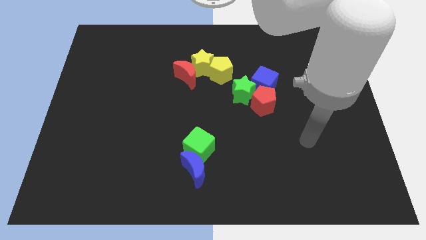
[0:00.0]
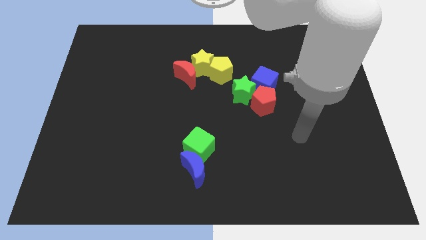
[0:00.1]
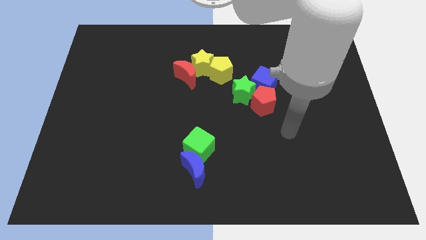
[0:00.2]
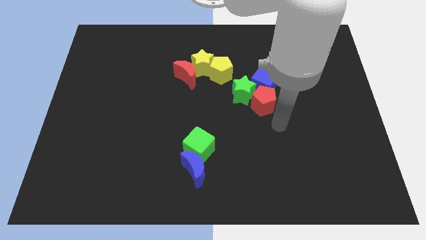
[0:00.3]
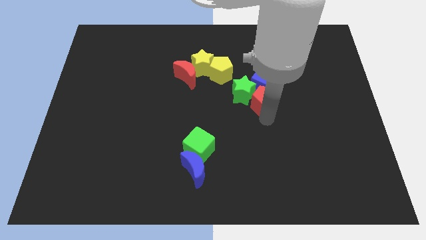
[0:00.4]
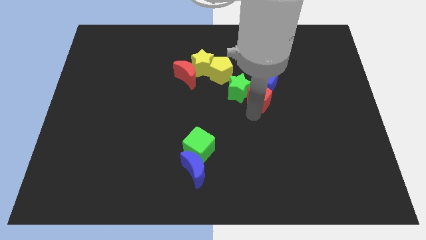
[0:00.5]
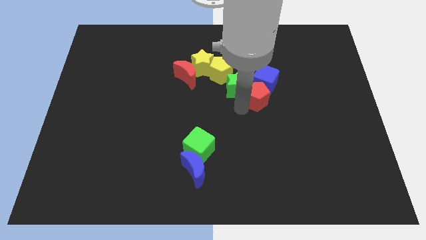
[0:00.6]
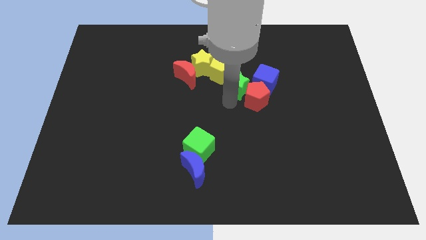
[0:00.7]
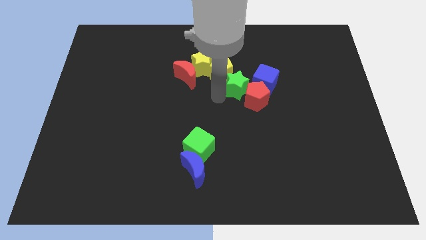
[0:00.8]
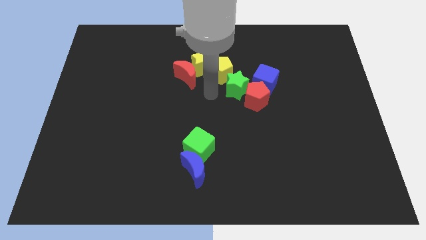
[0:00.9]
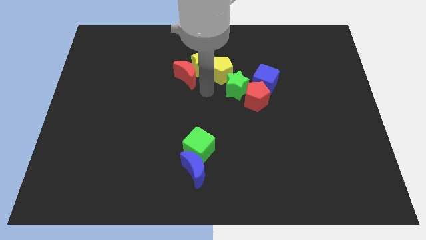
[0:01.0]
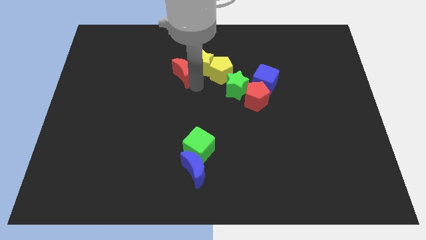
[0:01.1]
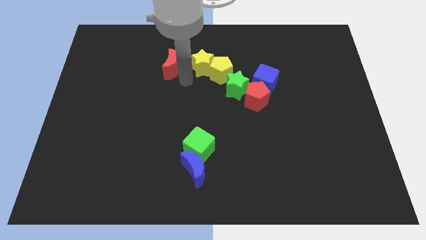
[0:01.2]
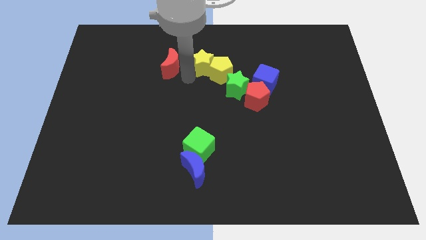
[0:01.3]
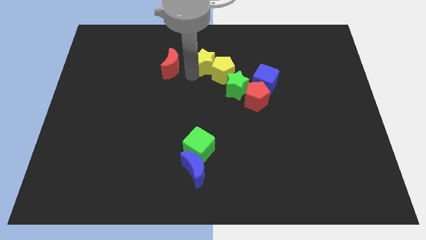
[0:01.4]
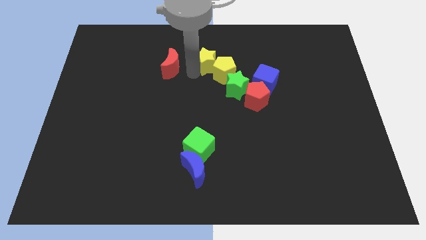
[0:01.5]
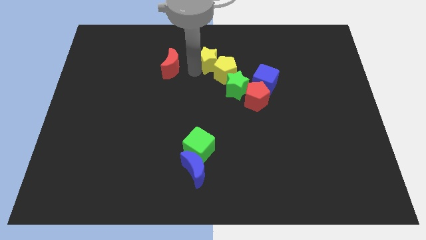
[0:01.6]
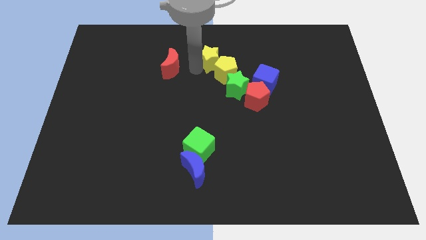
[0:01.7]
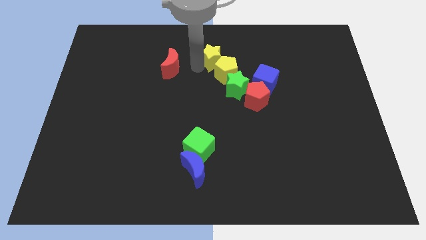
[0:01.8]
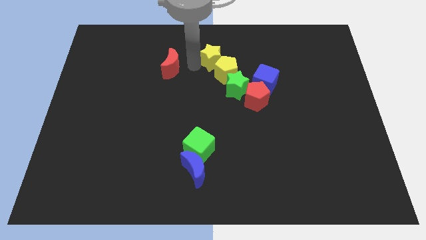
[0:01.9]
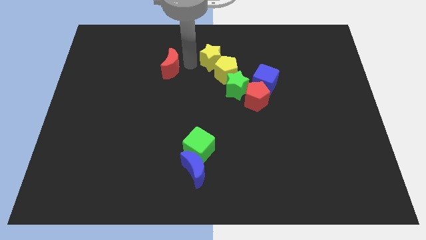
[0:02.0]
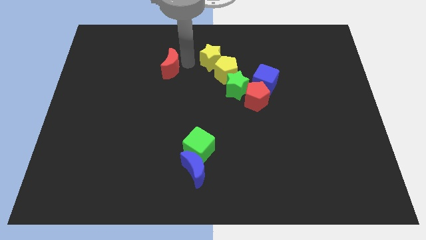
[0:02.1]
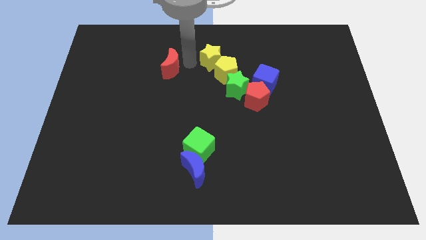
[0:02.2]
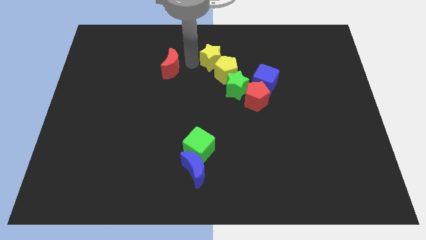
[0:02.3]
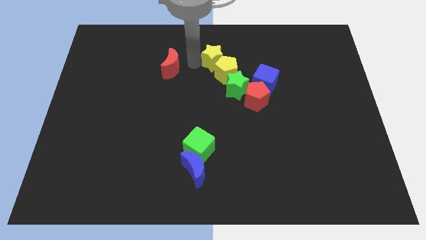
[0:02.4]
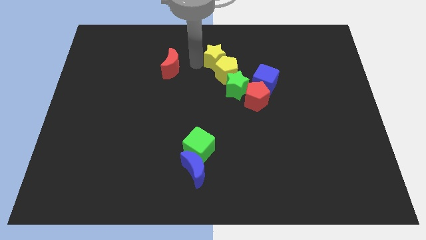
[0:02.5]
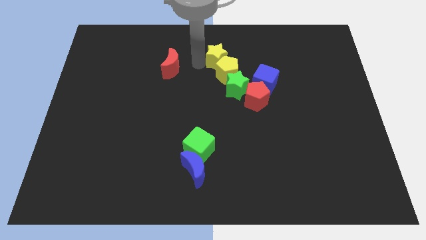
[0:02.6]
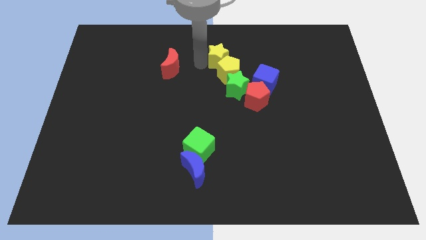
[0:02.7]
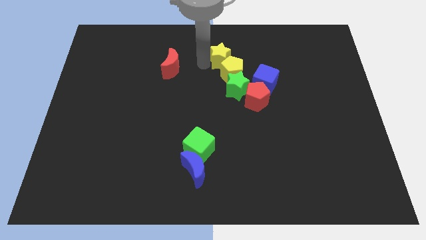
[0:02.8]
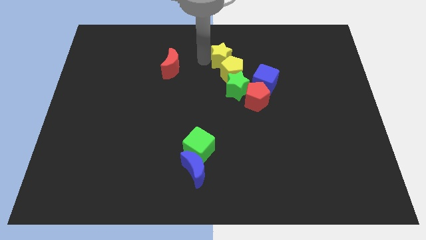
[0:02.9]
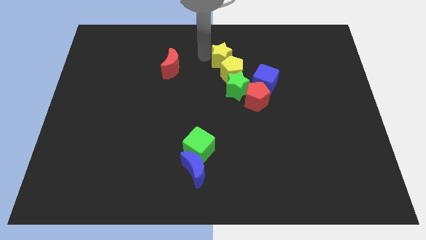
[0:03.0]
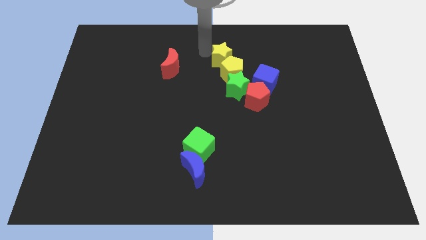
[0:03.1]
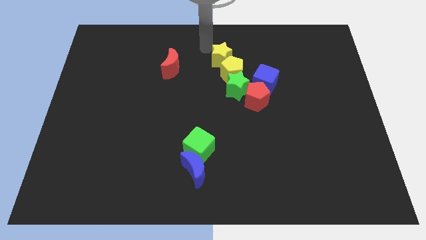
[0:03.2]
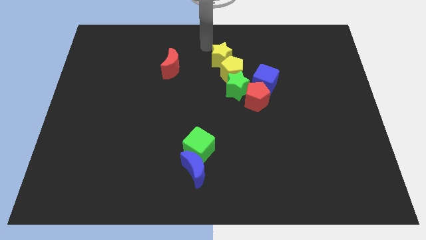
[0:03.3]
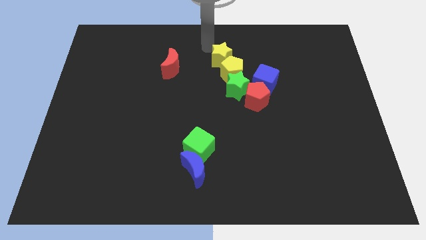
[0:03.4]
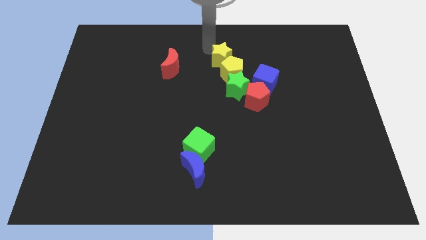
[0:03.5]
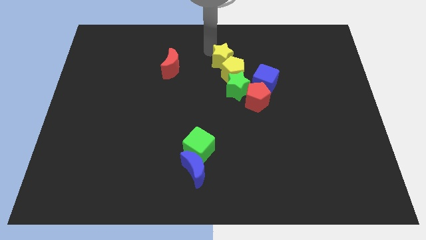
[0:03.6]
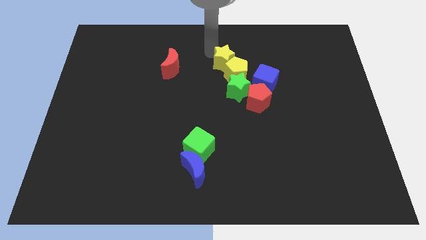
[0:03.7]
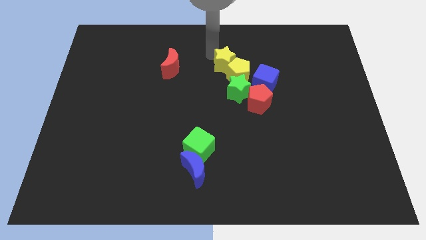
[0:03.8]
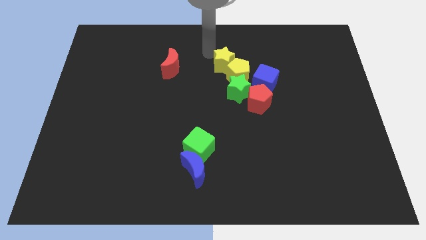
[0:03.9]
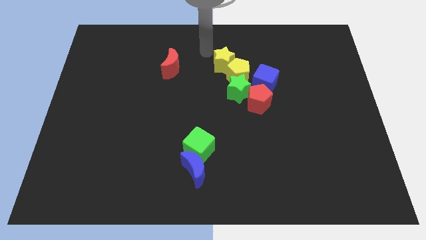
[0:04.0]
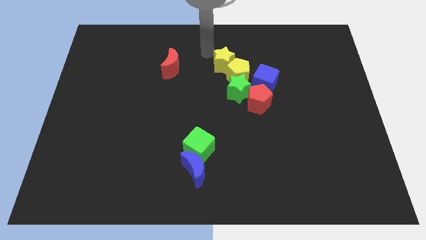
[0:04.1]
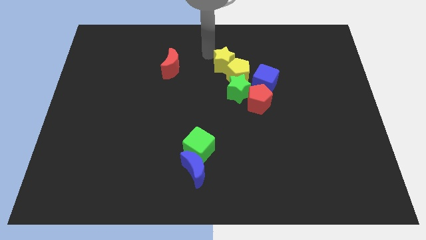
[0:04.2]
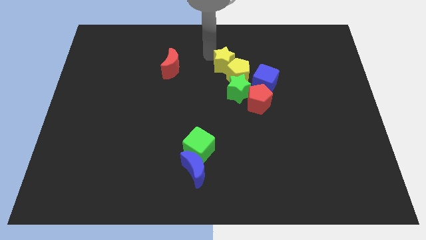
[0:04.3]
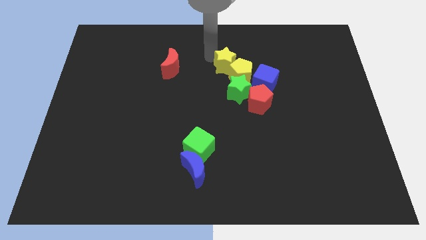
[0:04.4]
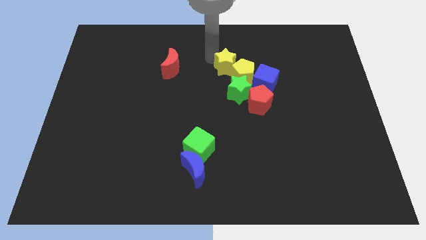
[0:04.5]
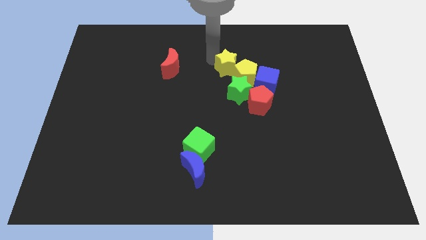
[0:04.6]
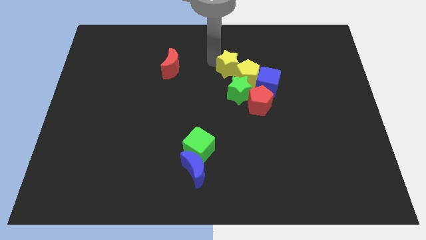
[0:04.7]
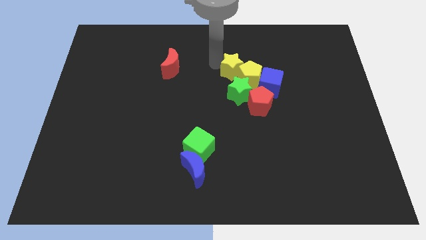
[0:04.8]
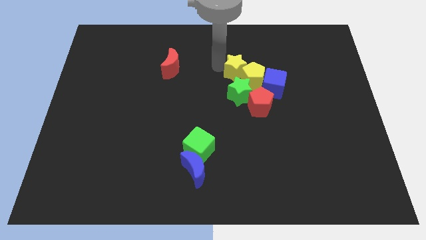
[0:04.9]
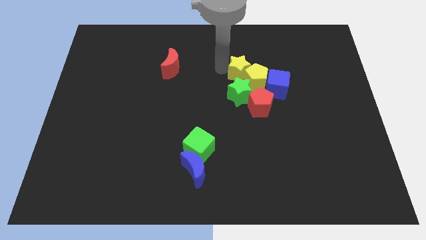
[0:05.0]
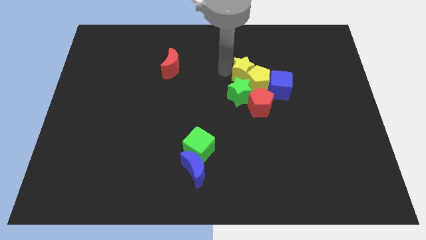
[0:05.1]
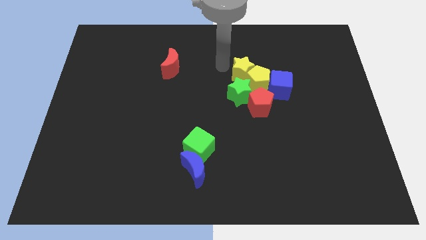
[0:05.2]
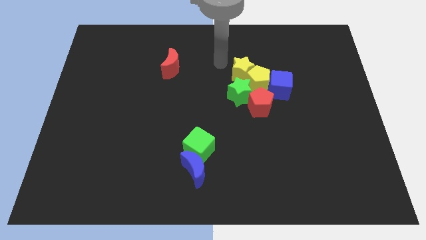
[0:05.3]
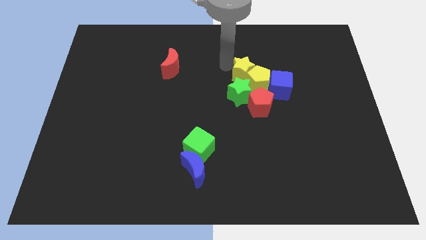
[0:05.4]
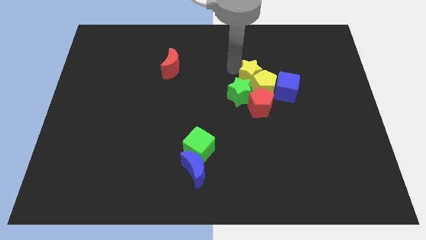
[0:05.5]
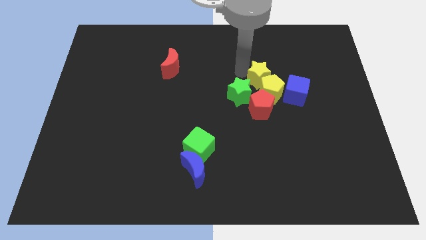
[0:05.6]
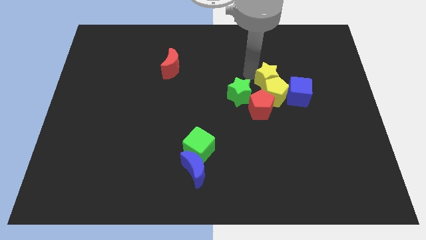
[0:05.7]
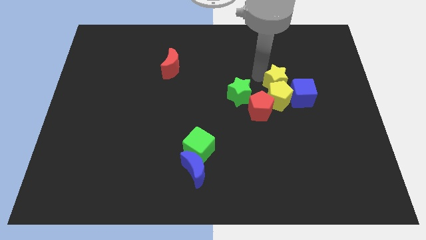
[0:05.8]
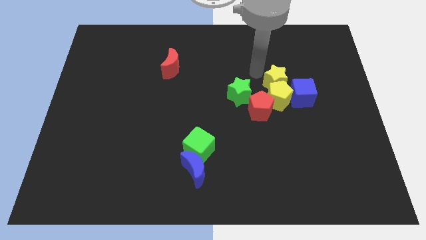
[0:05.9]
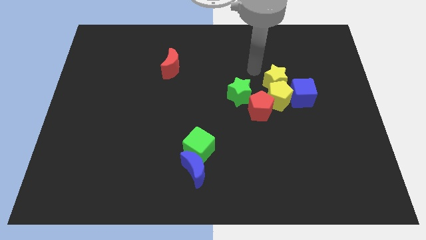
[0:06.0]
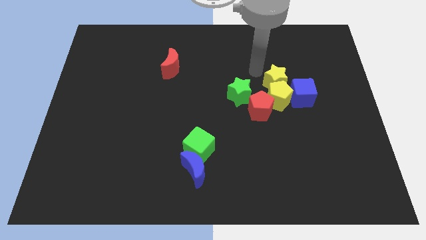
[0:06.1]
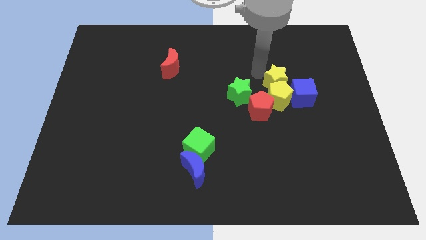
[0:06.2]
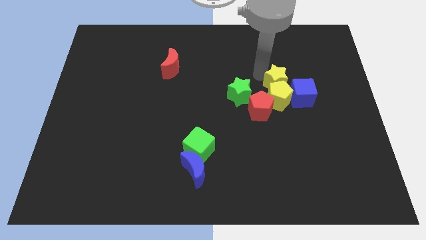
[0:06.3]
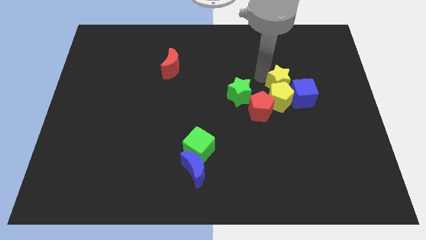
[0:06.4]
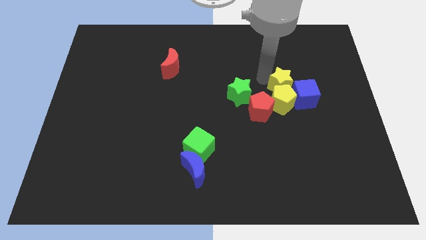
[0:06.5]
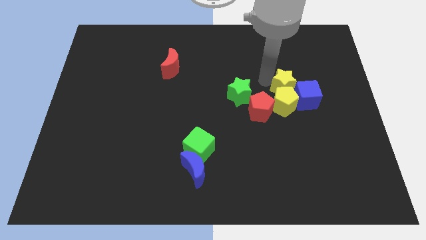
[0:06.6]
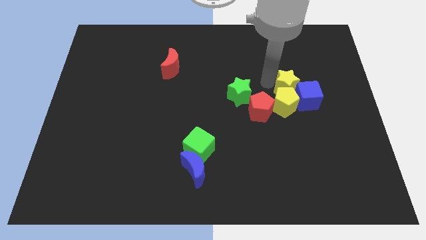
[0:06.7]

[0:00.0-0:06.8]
move the yellow star to the blue cube

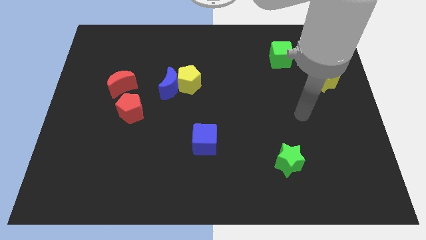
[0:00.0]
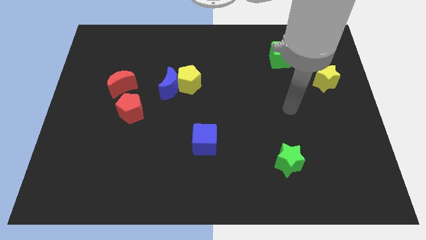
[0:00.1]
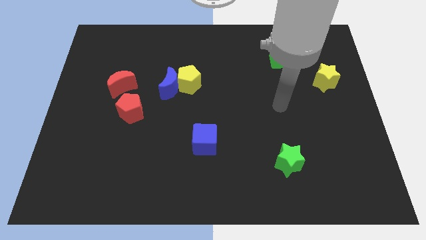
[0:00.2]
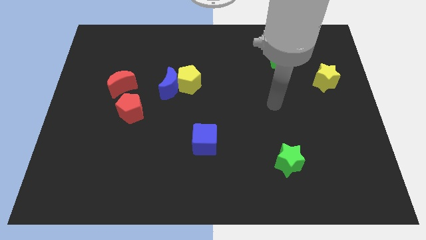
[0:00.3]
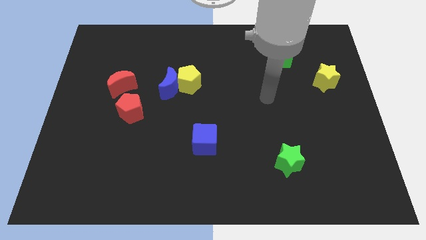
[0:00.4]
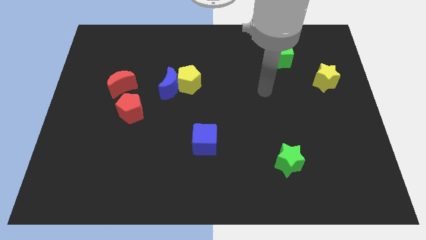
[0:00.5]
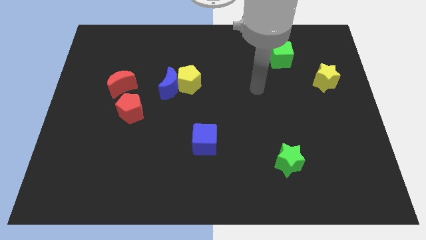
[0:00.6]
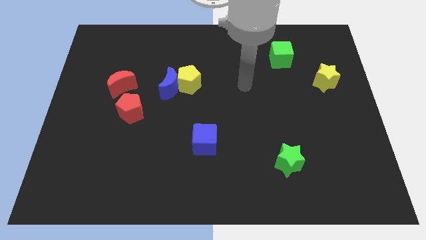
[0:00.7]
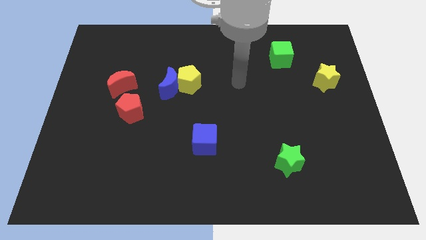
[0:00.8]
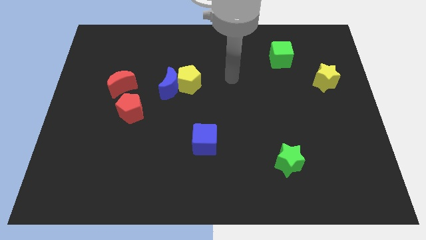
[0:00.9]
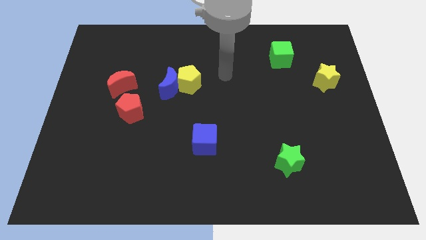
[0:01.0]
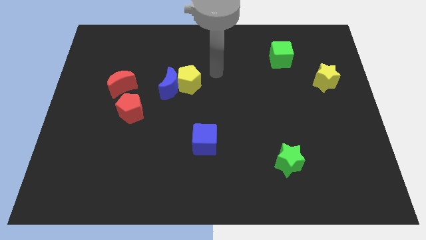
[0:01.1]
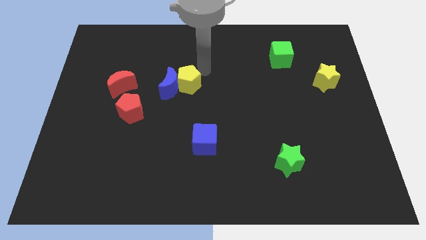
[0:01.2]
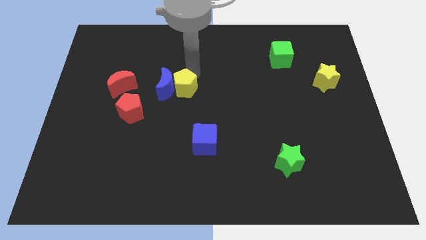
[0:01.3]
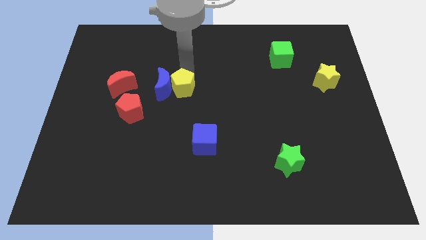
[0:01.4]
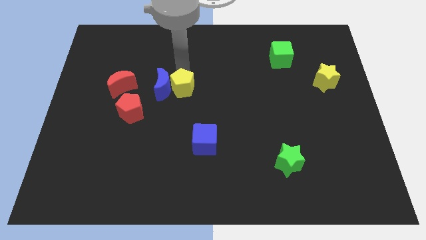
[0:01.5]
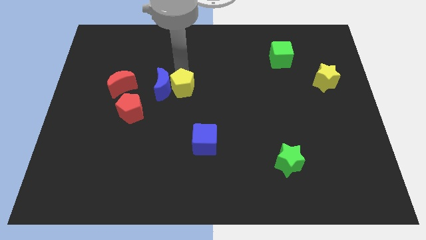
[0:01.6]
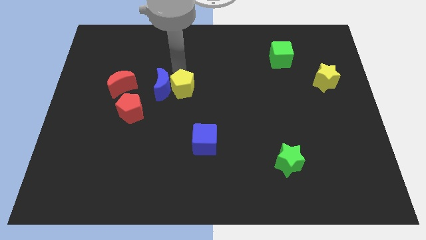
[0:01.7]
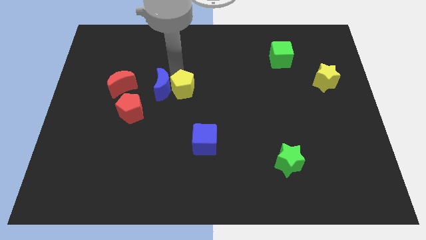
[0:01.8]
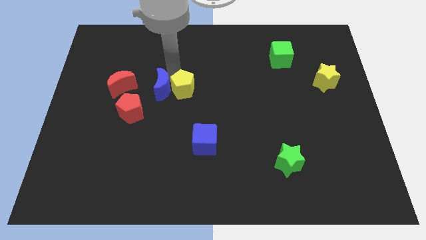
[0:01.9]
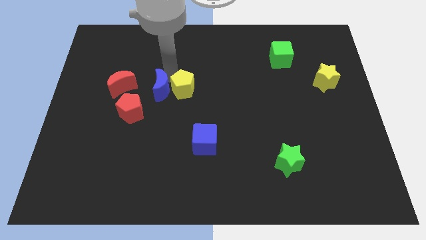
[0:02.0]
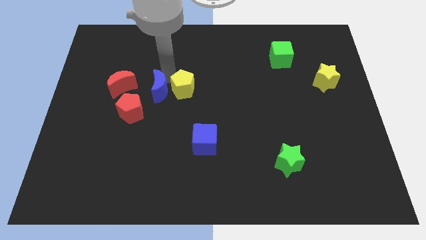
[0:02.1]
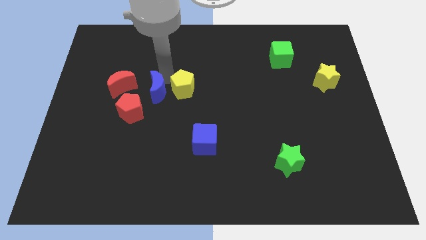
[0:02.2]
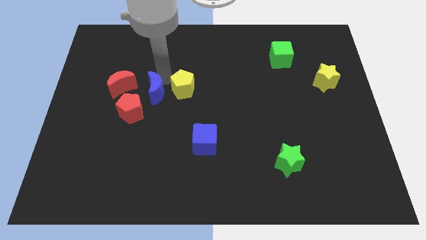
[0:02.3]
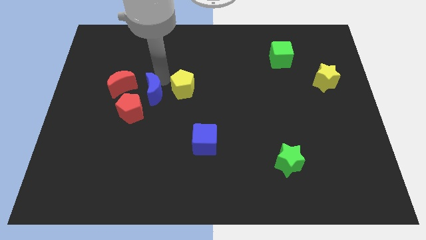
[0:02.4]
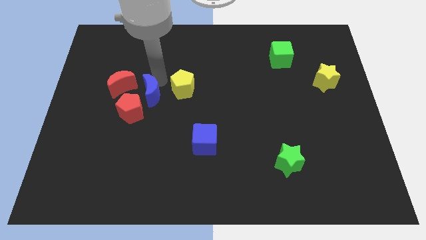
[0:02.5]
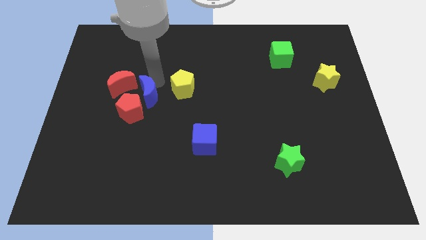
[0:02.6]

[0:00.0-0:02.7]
slide the blue moon to the red pentagon
